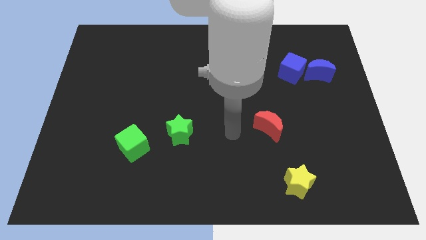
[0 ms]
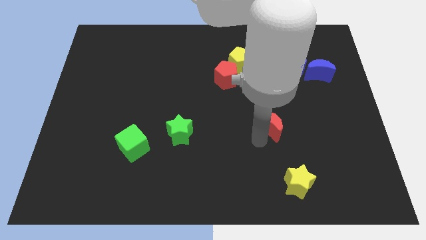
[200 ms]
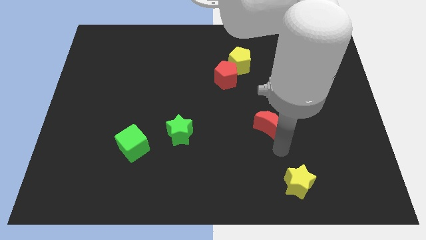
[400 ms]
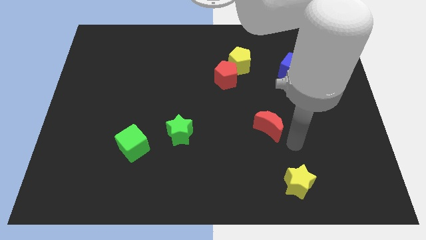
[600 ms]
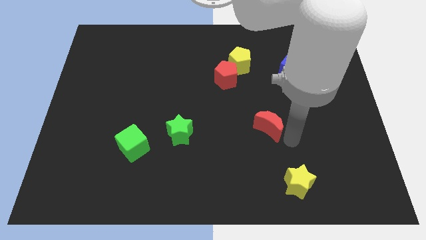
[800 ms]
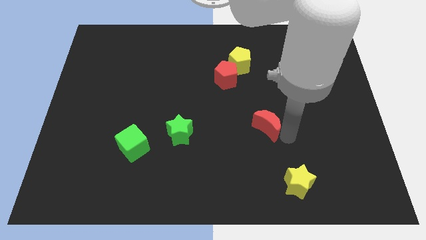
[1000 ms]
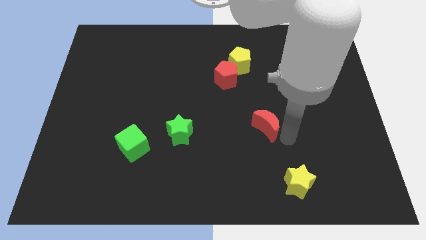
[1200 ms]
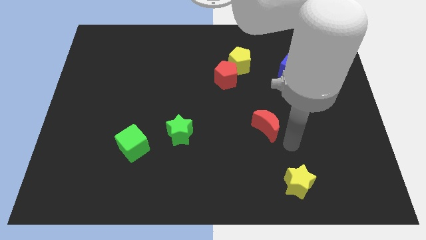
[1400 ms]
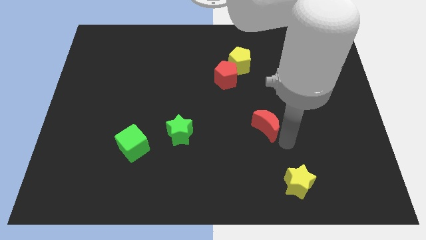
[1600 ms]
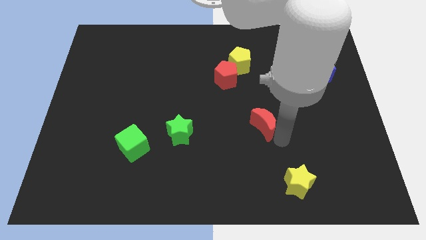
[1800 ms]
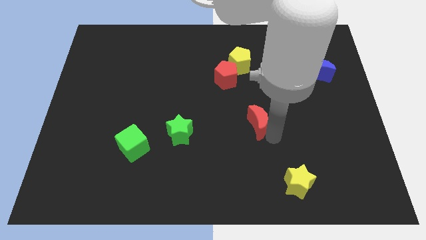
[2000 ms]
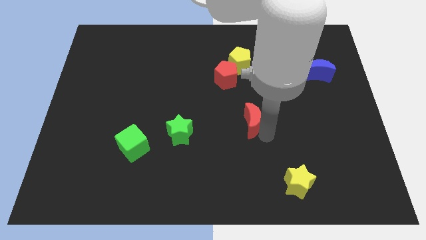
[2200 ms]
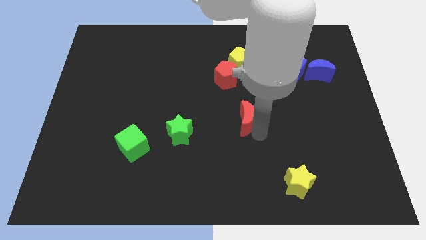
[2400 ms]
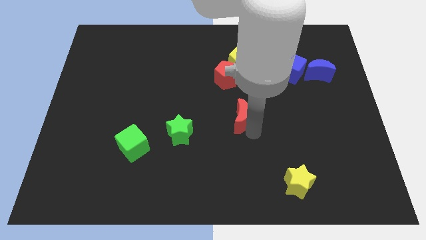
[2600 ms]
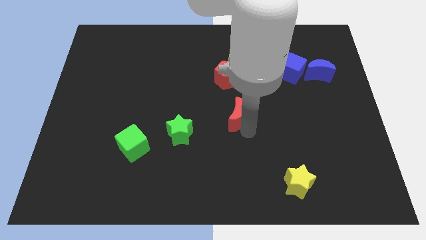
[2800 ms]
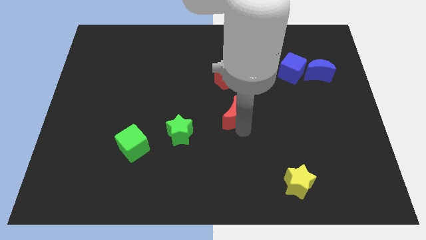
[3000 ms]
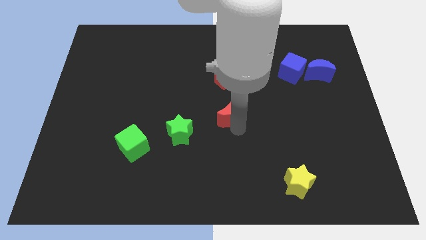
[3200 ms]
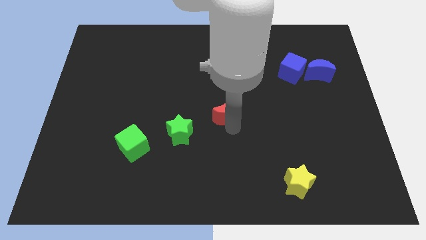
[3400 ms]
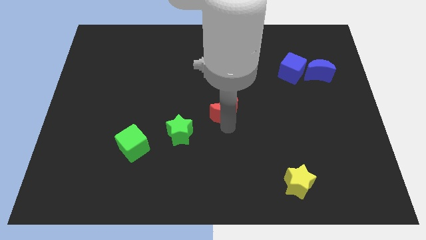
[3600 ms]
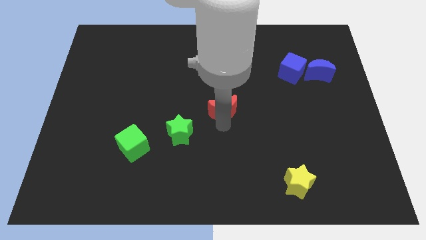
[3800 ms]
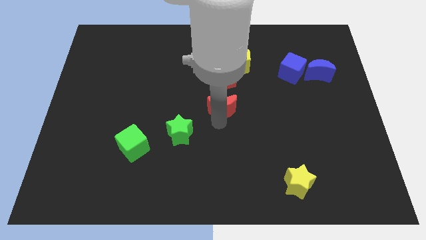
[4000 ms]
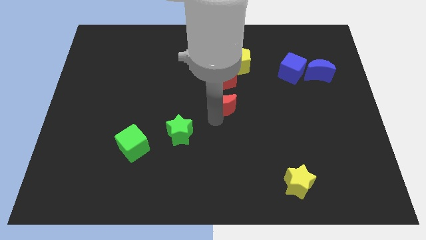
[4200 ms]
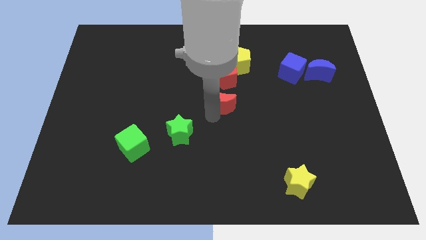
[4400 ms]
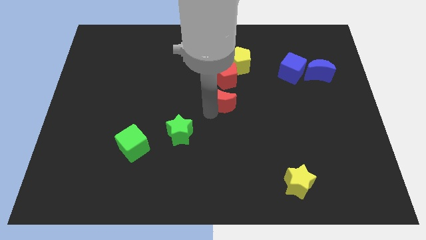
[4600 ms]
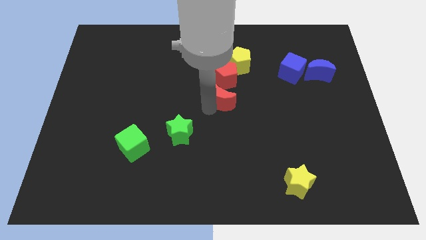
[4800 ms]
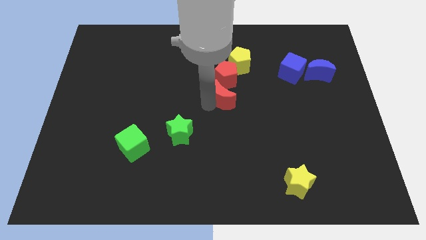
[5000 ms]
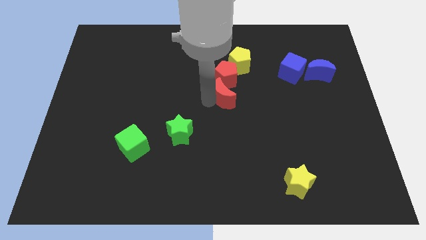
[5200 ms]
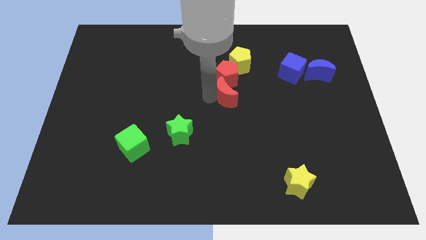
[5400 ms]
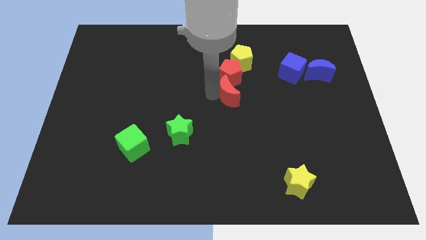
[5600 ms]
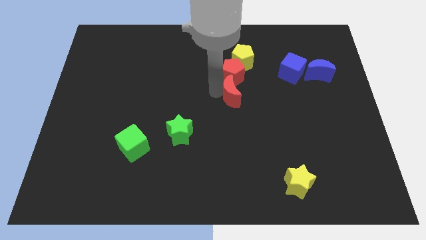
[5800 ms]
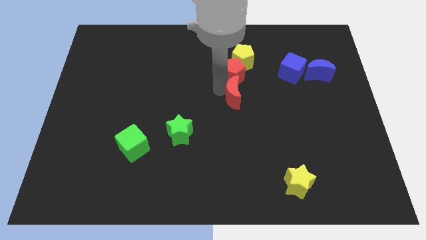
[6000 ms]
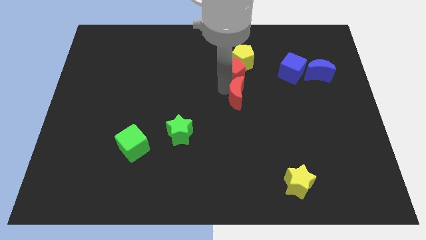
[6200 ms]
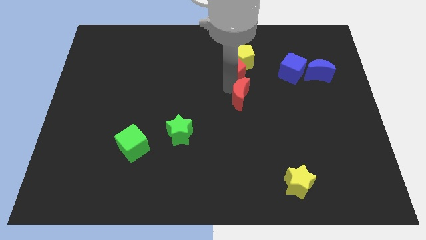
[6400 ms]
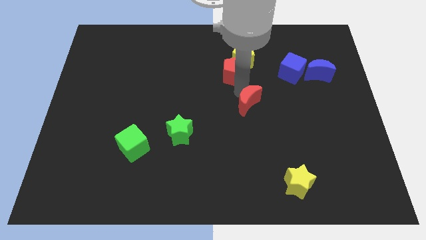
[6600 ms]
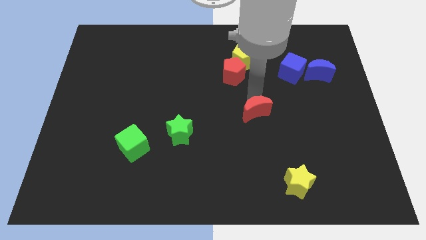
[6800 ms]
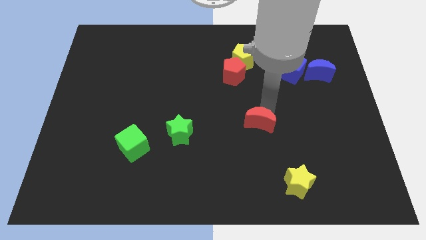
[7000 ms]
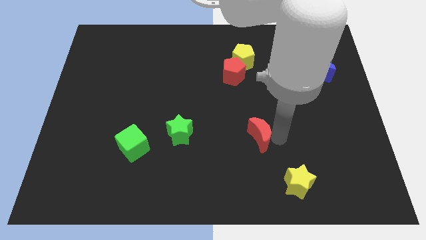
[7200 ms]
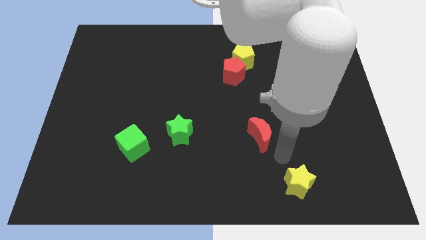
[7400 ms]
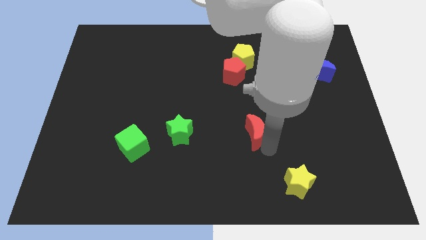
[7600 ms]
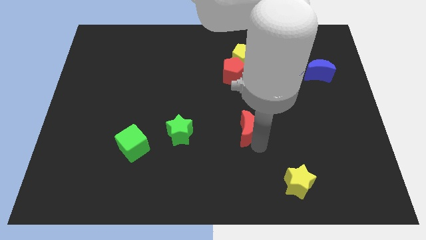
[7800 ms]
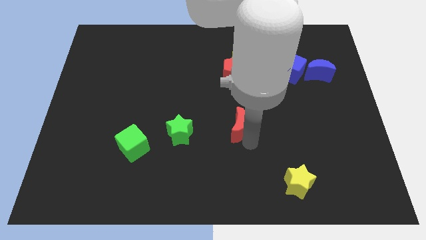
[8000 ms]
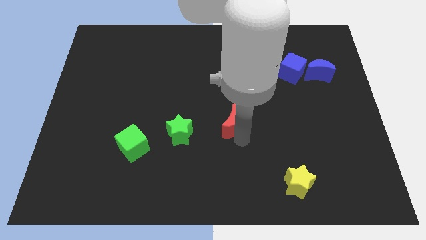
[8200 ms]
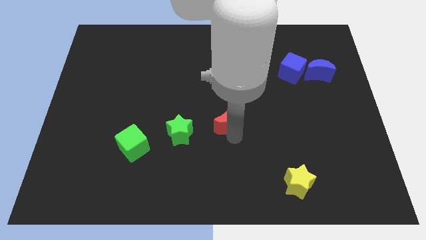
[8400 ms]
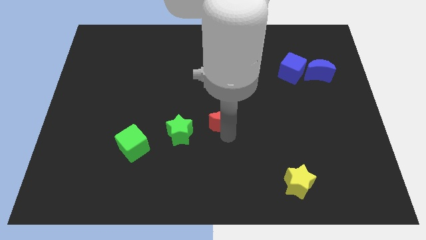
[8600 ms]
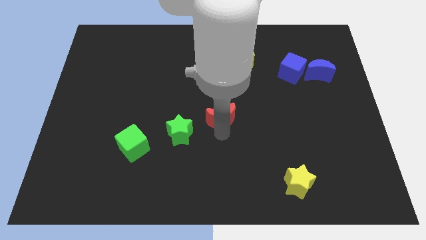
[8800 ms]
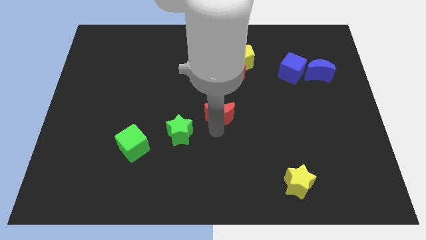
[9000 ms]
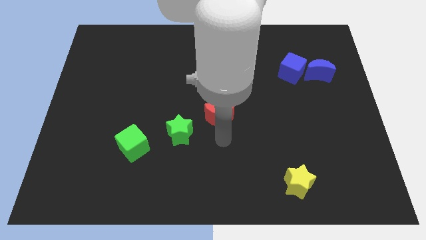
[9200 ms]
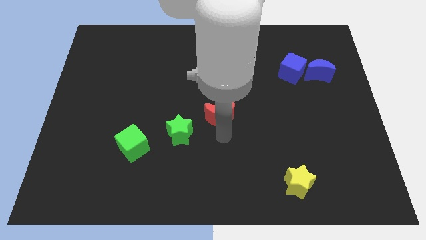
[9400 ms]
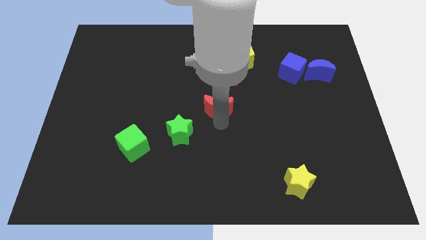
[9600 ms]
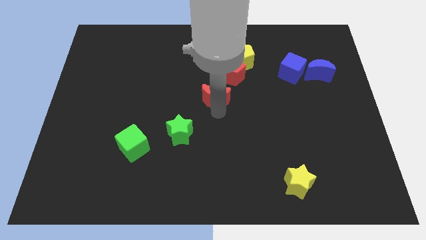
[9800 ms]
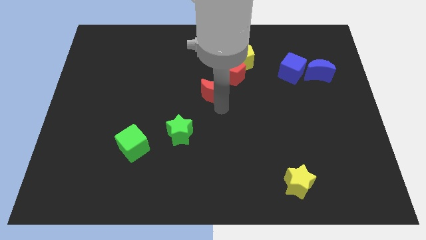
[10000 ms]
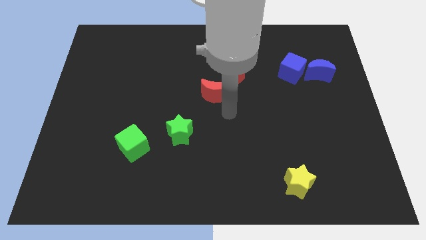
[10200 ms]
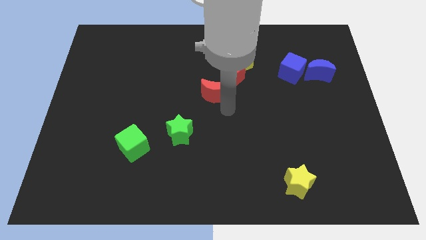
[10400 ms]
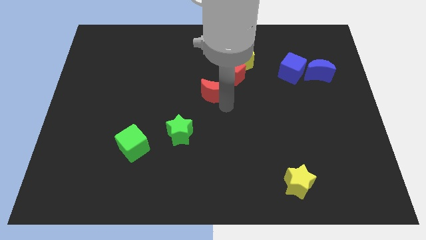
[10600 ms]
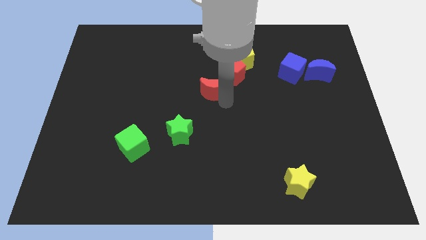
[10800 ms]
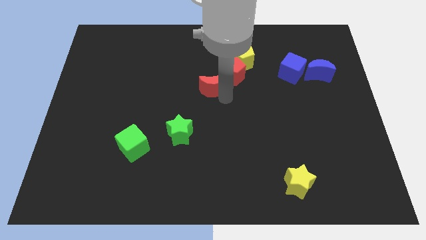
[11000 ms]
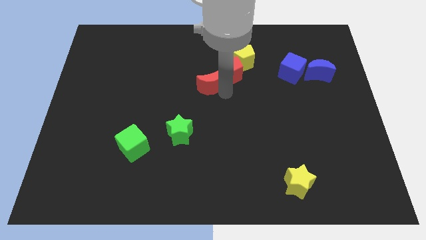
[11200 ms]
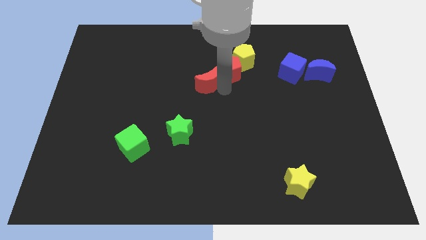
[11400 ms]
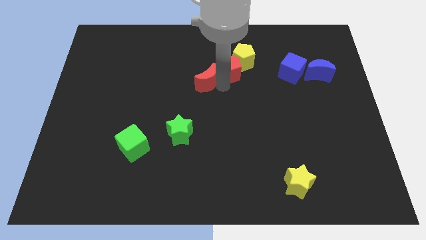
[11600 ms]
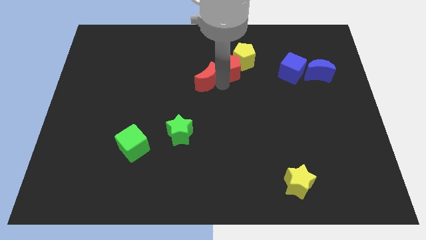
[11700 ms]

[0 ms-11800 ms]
move the red moon diagonally upwards and left

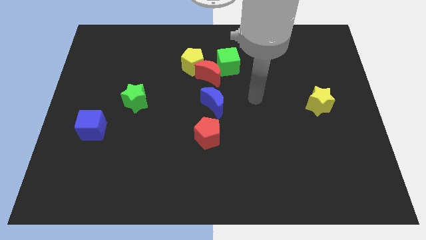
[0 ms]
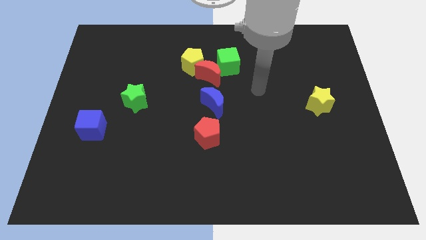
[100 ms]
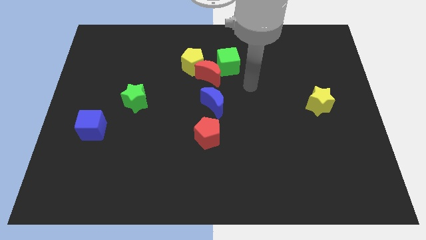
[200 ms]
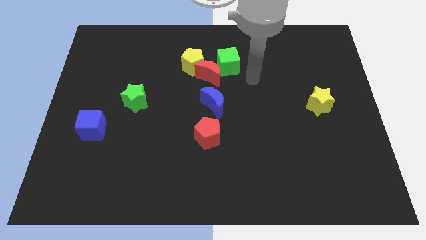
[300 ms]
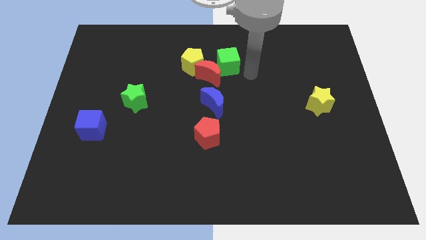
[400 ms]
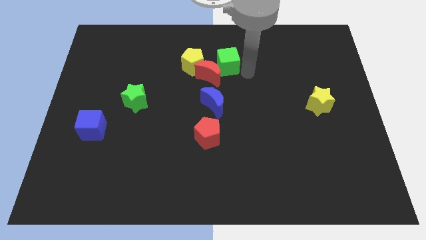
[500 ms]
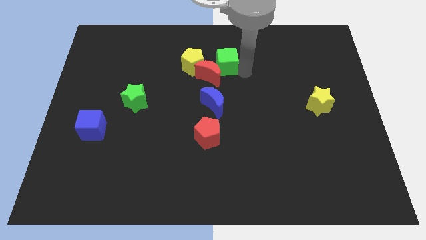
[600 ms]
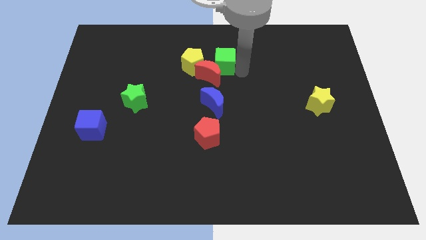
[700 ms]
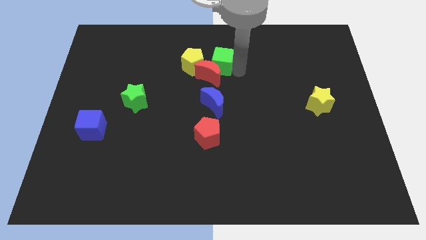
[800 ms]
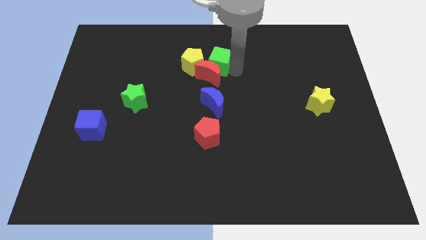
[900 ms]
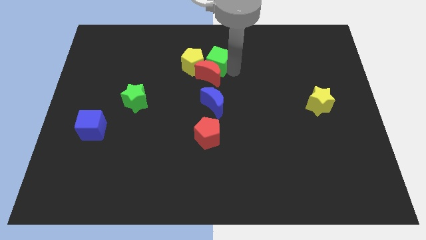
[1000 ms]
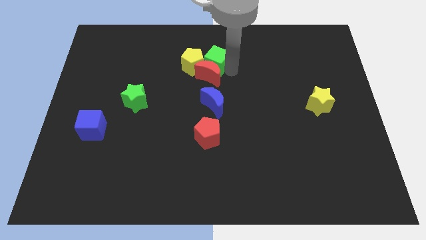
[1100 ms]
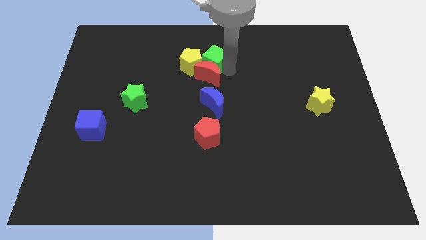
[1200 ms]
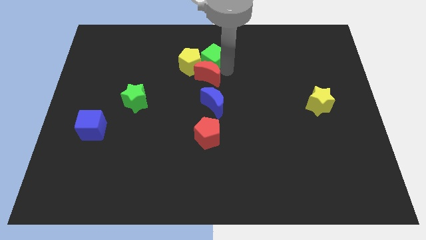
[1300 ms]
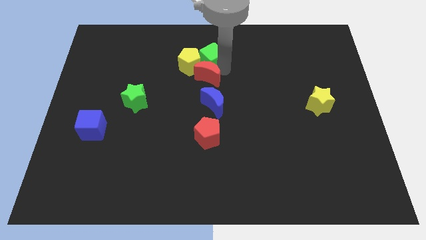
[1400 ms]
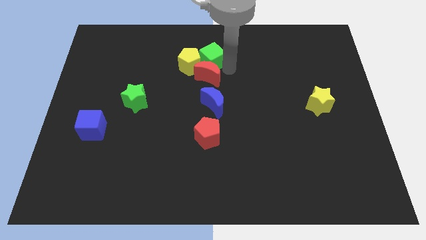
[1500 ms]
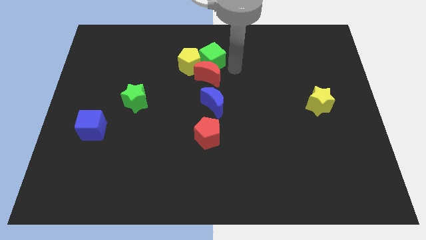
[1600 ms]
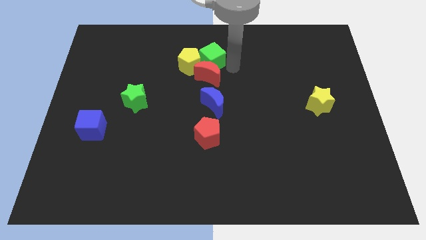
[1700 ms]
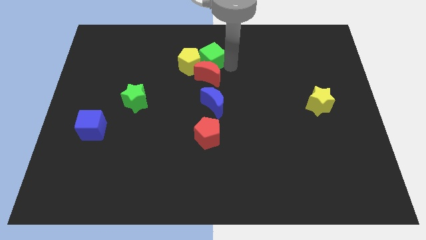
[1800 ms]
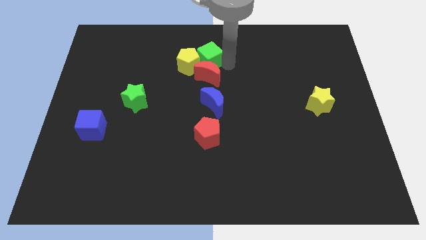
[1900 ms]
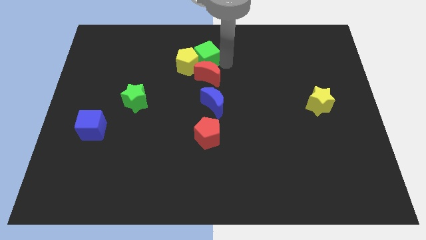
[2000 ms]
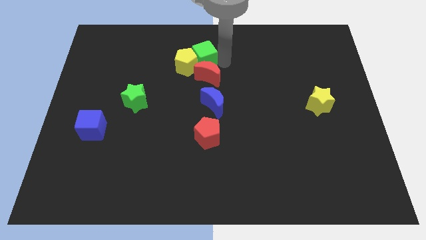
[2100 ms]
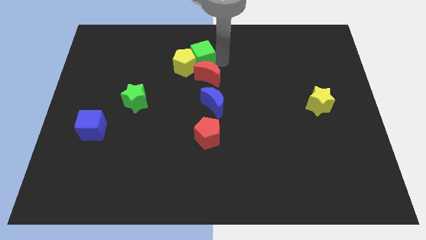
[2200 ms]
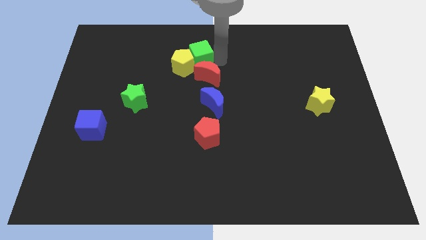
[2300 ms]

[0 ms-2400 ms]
move the green cube to the left somewhat
